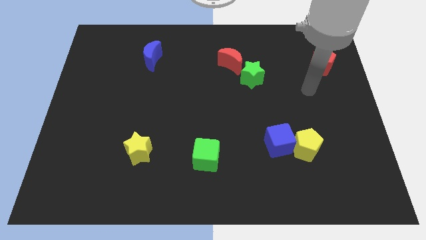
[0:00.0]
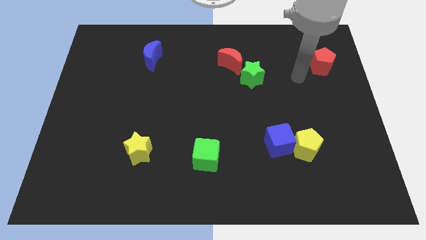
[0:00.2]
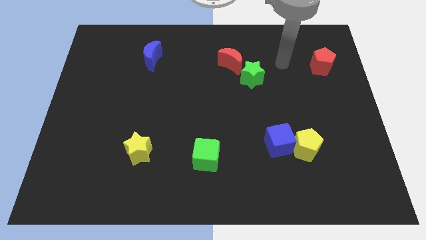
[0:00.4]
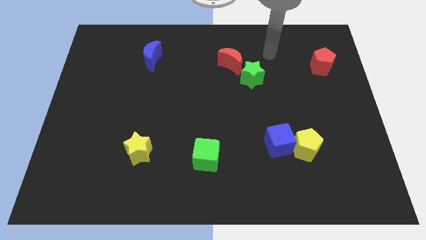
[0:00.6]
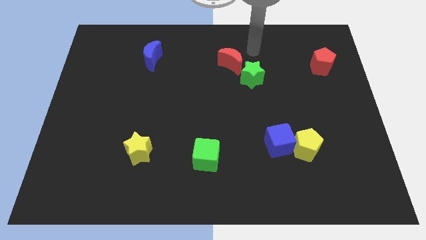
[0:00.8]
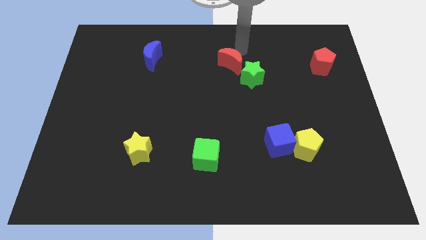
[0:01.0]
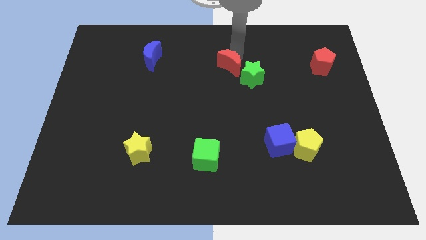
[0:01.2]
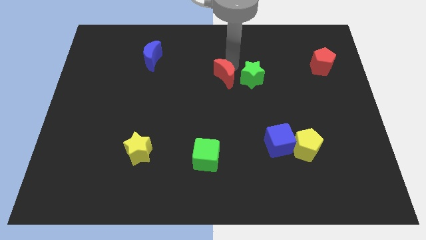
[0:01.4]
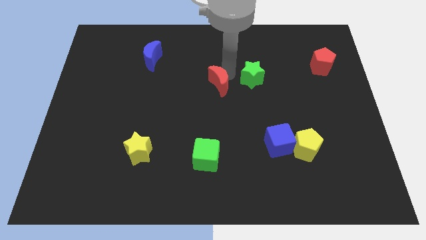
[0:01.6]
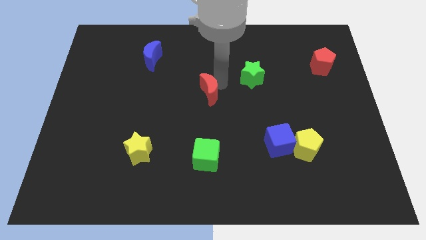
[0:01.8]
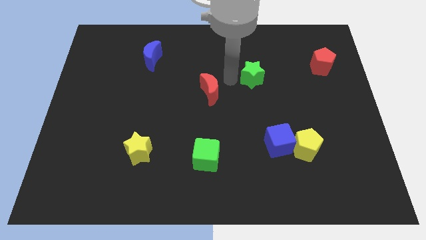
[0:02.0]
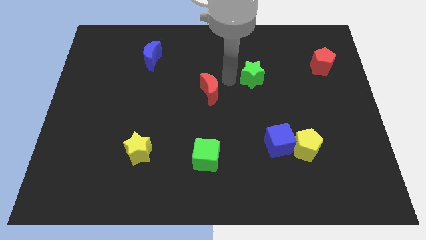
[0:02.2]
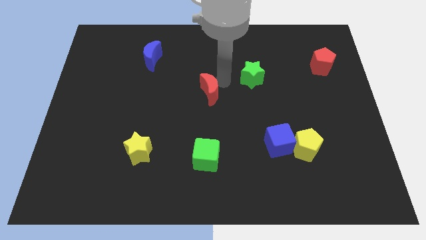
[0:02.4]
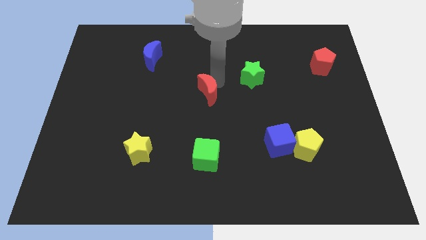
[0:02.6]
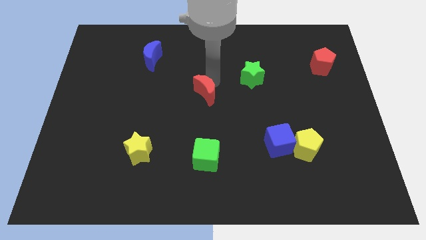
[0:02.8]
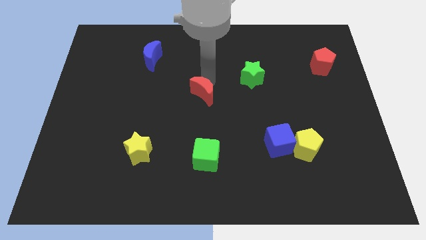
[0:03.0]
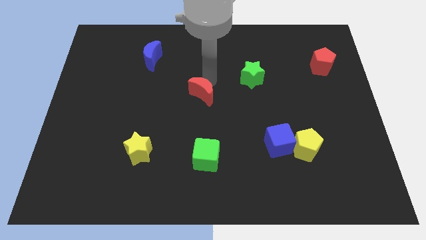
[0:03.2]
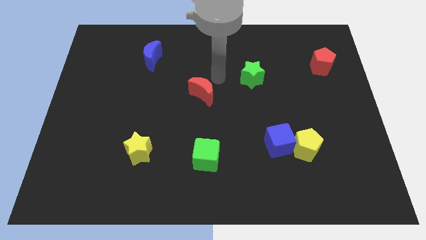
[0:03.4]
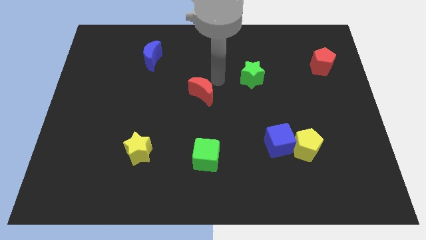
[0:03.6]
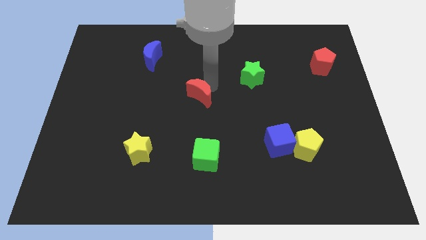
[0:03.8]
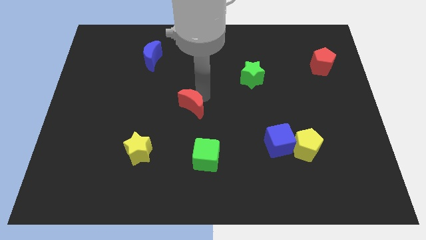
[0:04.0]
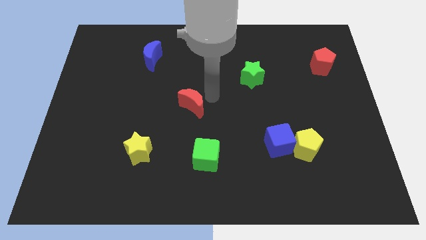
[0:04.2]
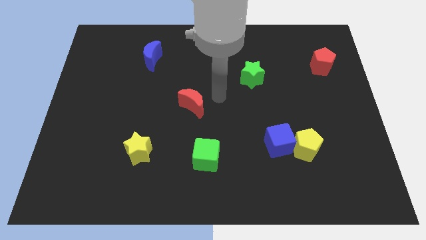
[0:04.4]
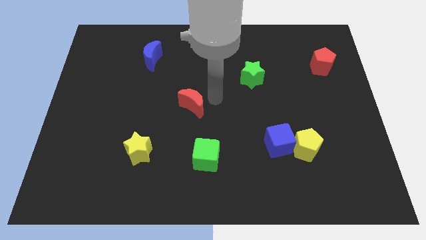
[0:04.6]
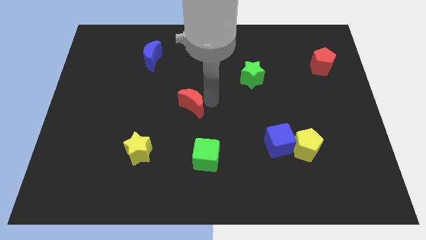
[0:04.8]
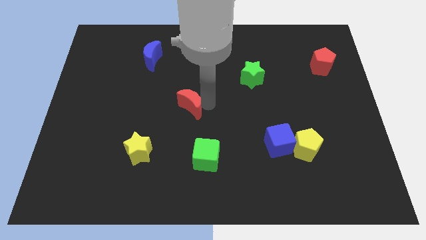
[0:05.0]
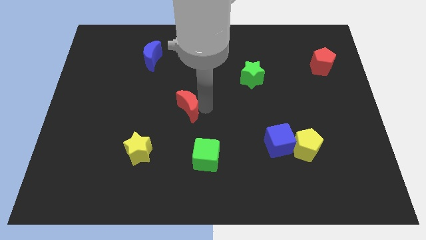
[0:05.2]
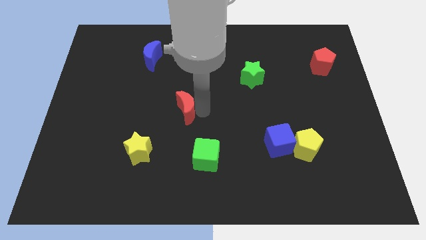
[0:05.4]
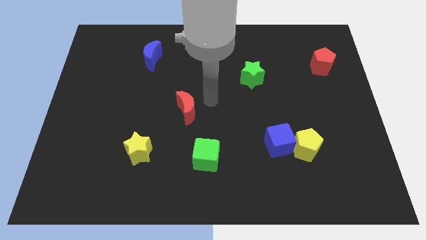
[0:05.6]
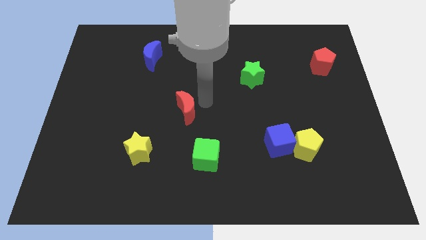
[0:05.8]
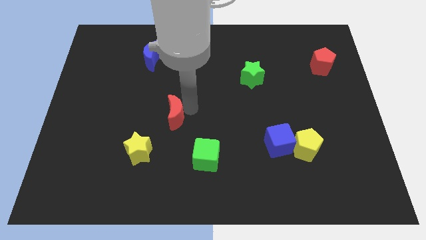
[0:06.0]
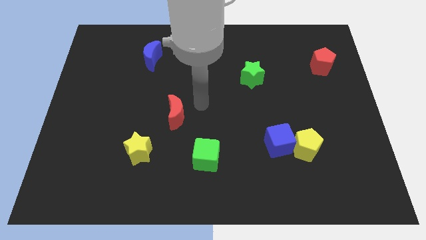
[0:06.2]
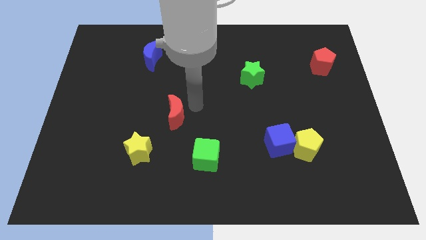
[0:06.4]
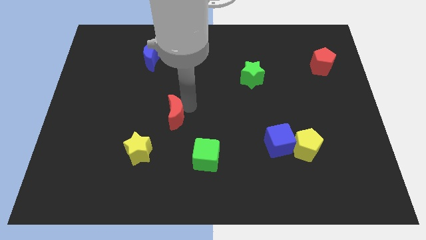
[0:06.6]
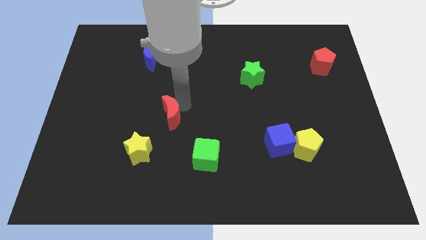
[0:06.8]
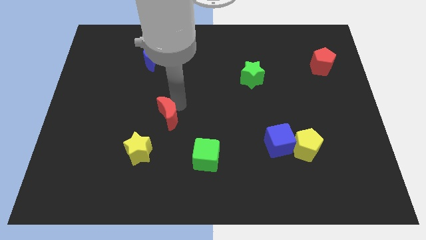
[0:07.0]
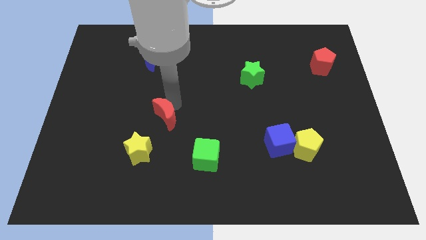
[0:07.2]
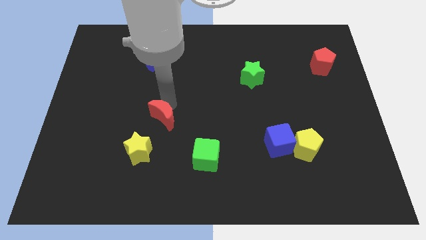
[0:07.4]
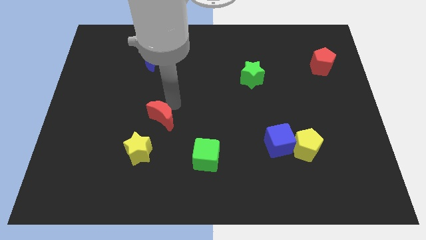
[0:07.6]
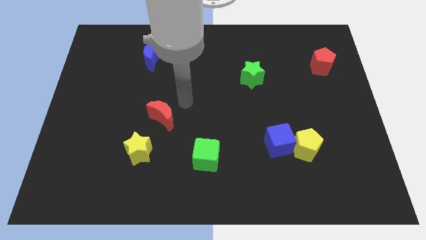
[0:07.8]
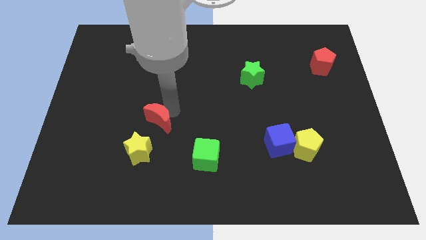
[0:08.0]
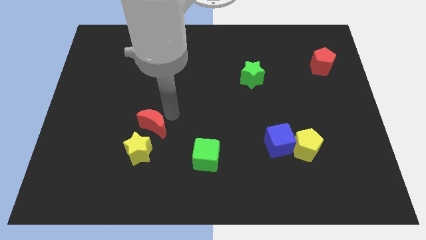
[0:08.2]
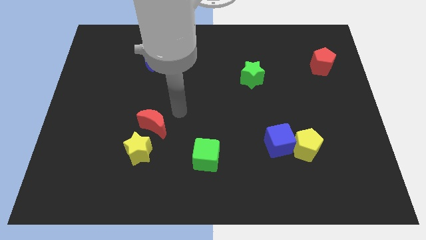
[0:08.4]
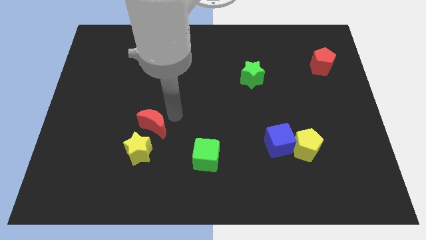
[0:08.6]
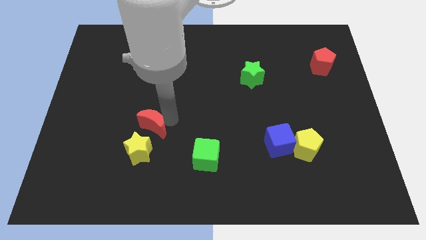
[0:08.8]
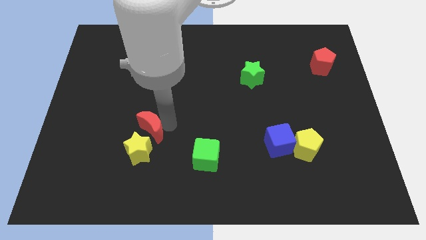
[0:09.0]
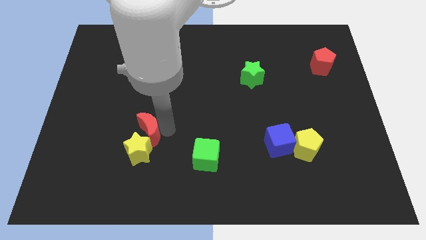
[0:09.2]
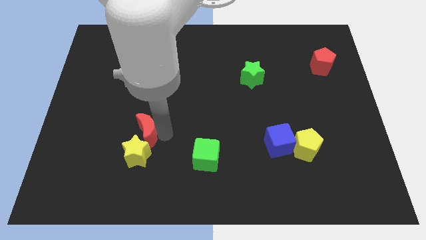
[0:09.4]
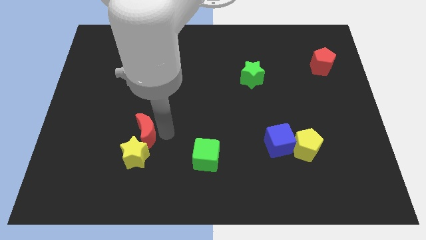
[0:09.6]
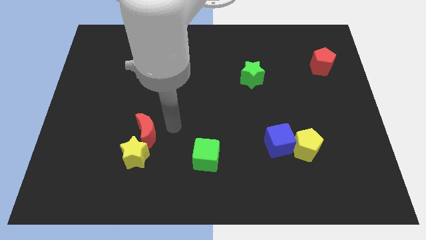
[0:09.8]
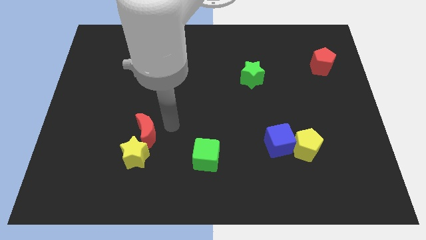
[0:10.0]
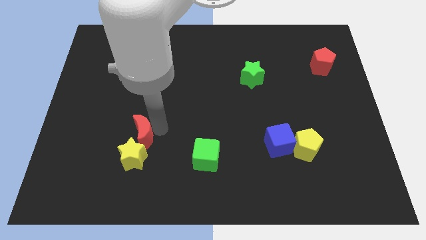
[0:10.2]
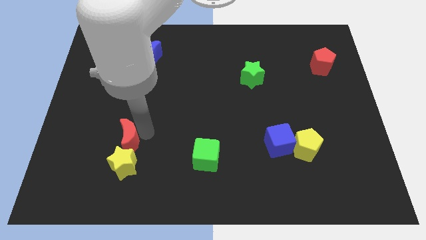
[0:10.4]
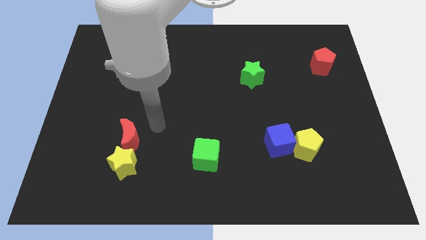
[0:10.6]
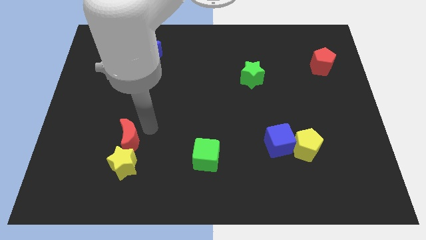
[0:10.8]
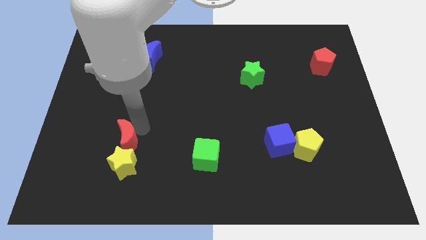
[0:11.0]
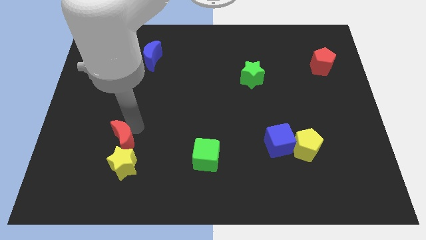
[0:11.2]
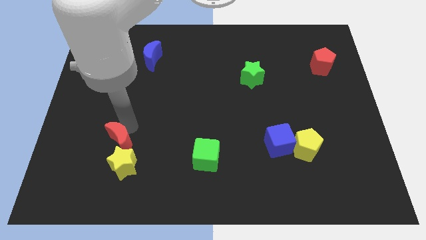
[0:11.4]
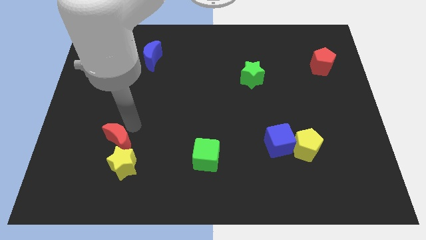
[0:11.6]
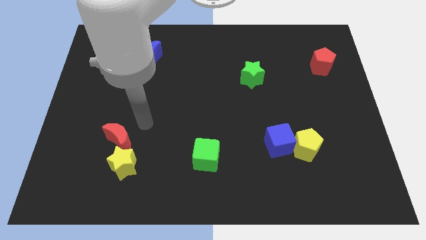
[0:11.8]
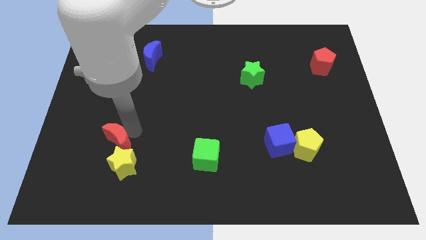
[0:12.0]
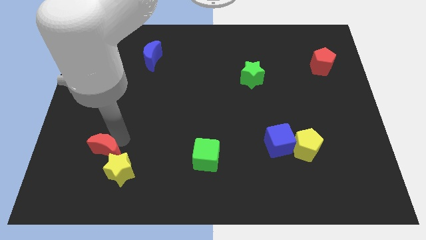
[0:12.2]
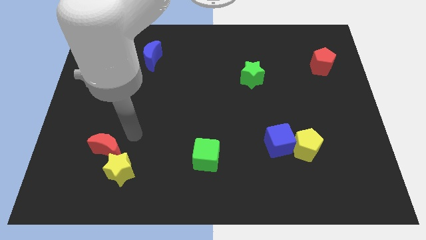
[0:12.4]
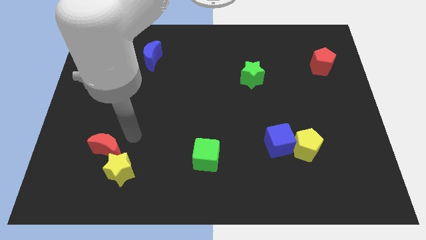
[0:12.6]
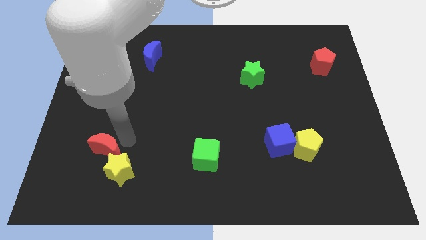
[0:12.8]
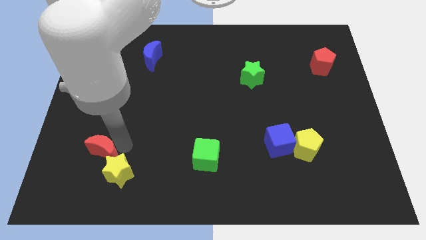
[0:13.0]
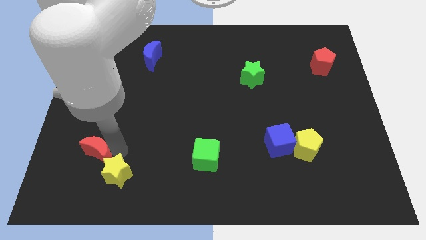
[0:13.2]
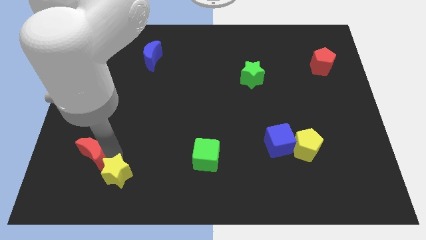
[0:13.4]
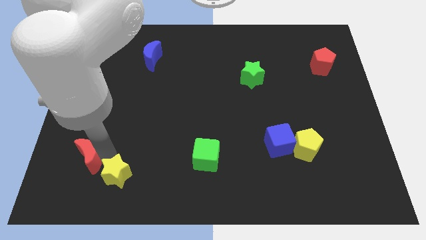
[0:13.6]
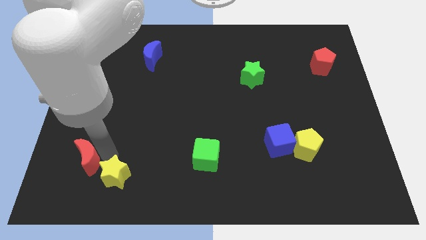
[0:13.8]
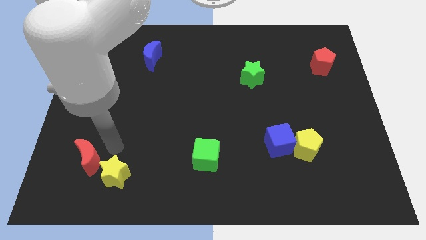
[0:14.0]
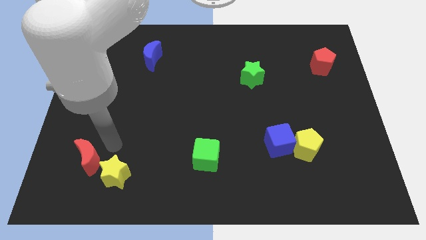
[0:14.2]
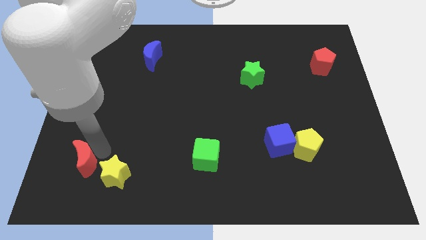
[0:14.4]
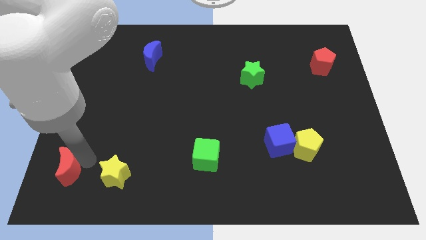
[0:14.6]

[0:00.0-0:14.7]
put the red moon to the bottom left of the board
